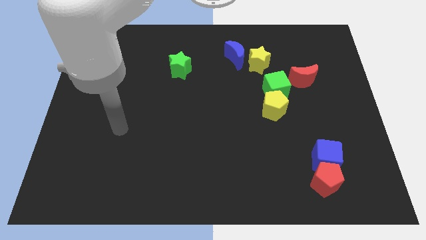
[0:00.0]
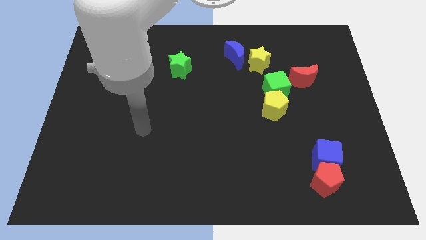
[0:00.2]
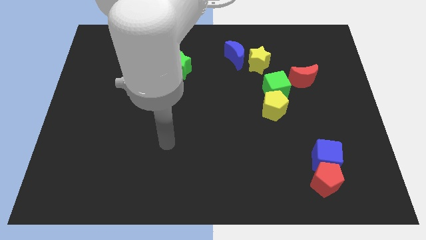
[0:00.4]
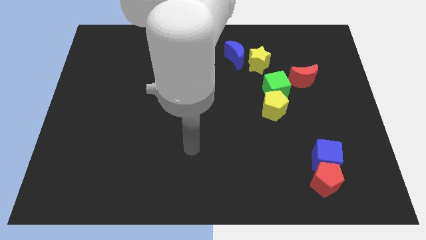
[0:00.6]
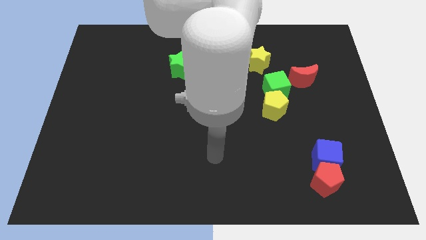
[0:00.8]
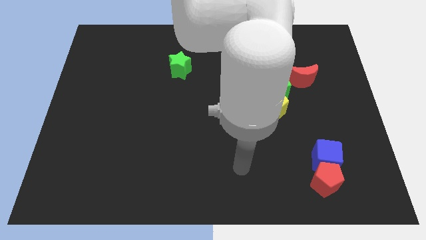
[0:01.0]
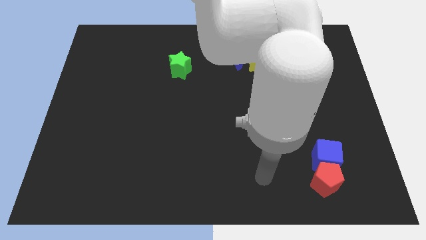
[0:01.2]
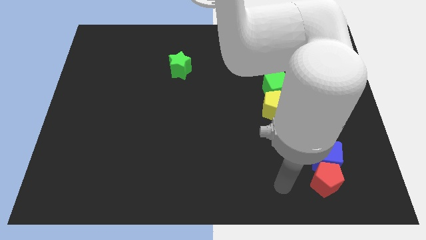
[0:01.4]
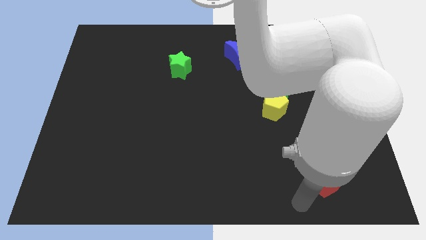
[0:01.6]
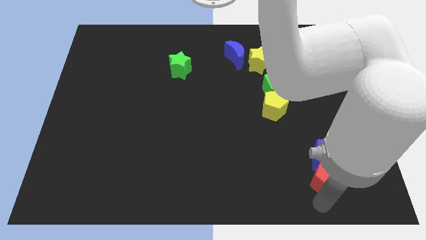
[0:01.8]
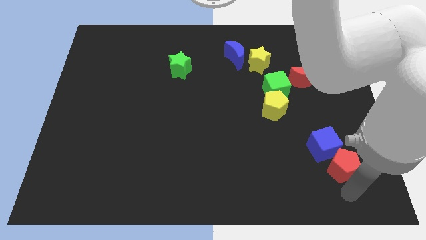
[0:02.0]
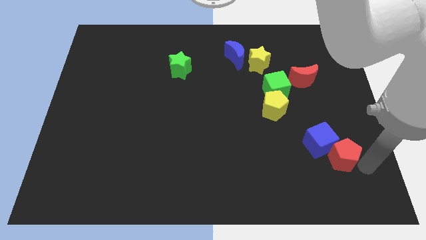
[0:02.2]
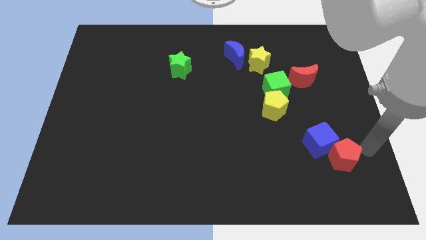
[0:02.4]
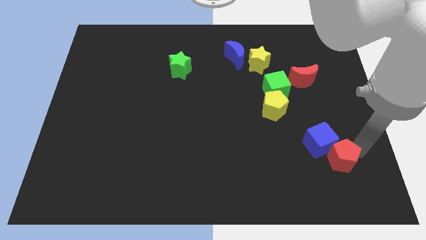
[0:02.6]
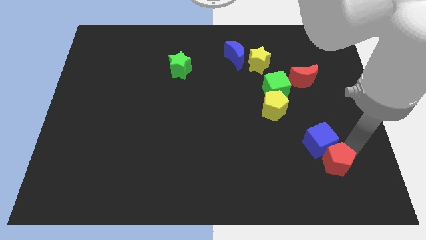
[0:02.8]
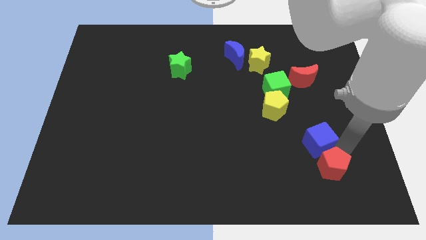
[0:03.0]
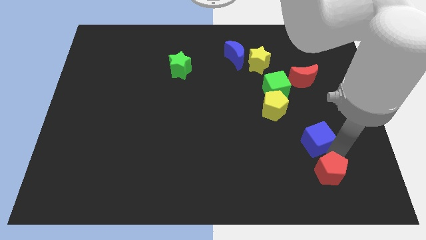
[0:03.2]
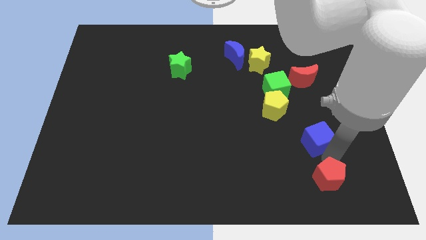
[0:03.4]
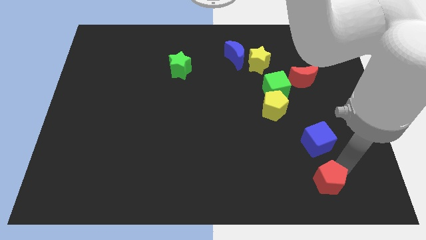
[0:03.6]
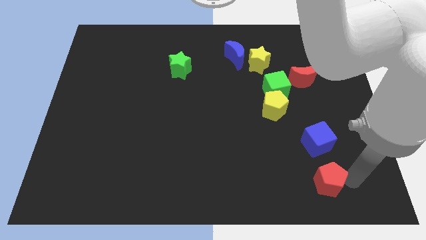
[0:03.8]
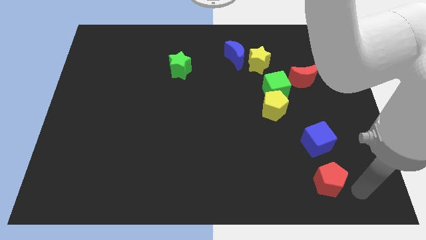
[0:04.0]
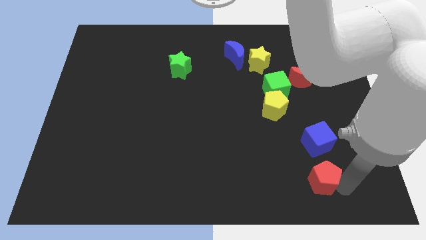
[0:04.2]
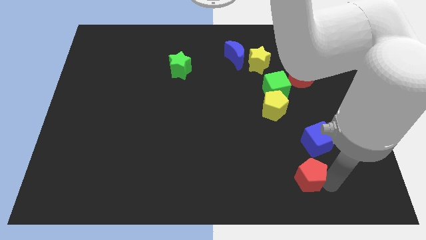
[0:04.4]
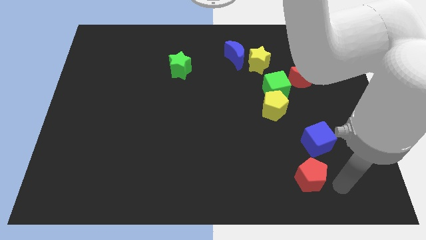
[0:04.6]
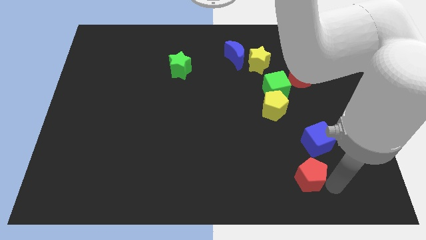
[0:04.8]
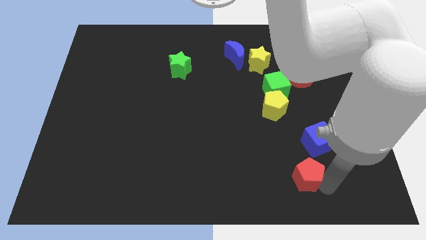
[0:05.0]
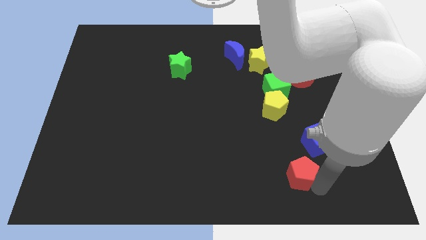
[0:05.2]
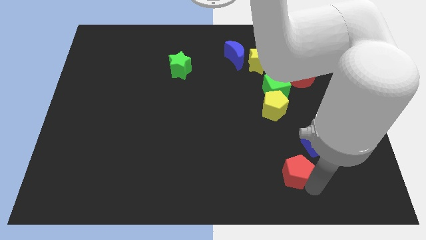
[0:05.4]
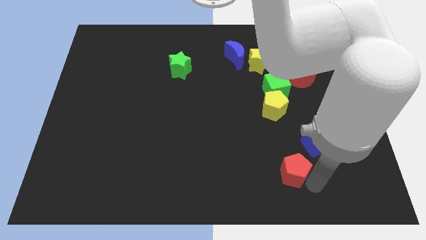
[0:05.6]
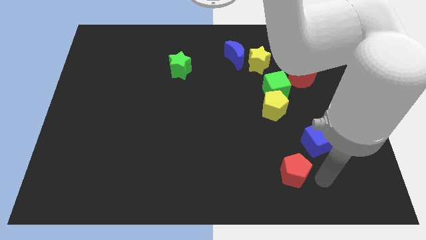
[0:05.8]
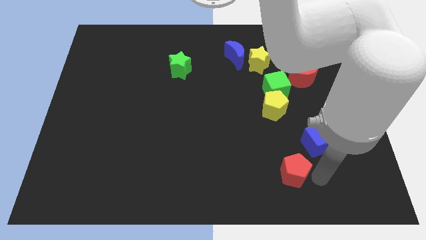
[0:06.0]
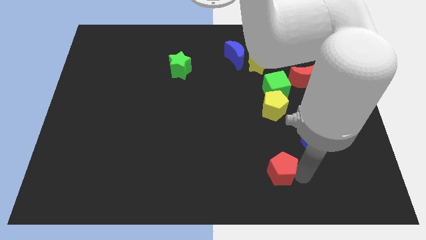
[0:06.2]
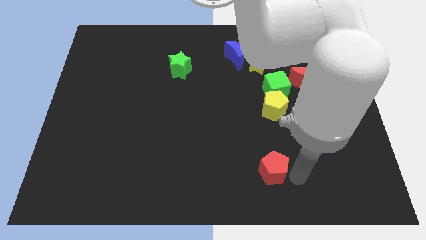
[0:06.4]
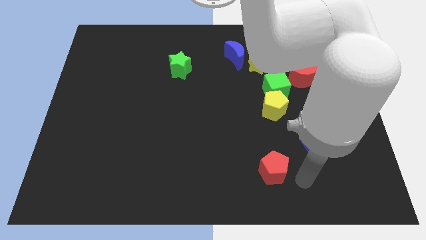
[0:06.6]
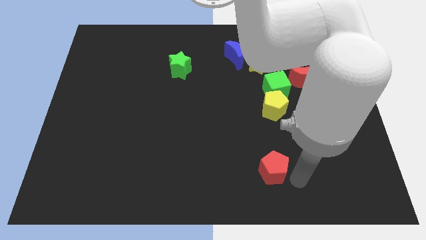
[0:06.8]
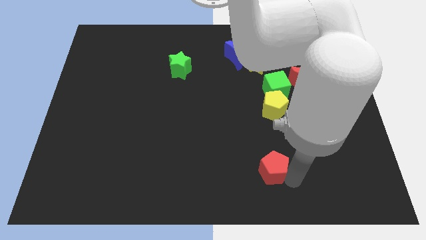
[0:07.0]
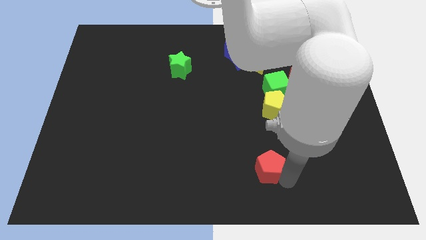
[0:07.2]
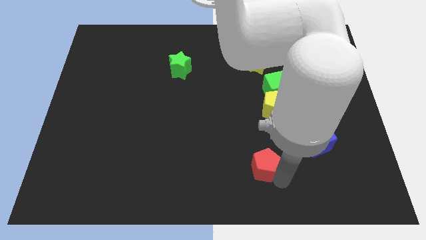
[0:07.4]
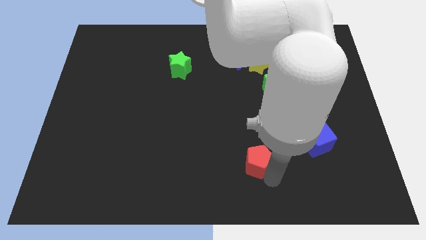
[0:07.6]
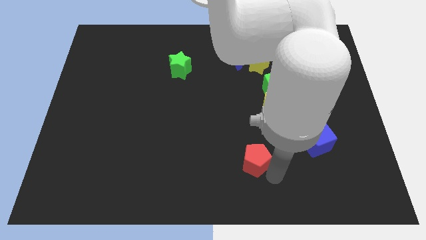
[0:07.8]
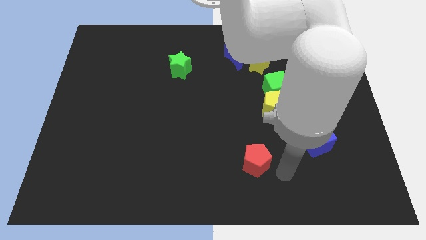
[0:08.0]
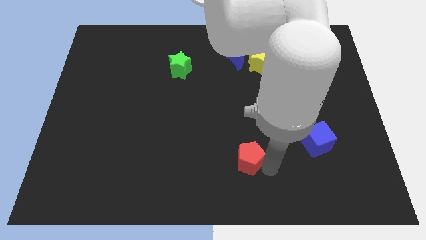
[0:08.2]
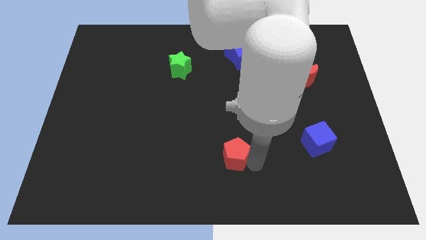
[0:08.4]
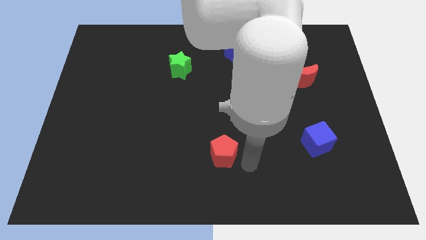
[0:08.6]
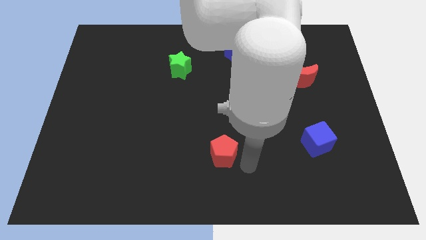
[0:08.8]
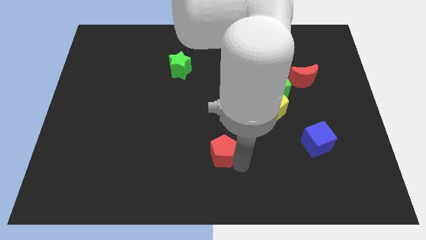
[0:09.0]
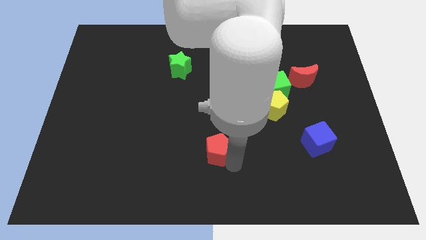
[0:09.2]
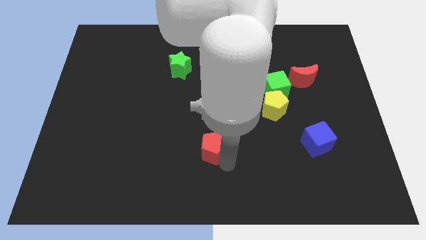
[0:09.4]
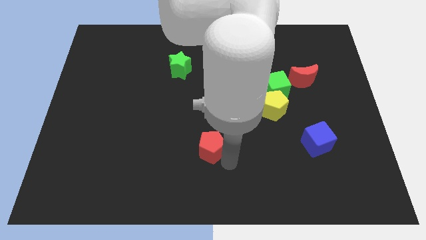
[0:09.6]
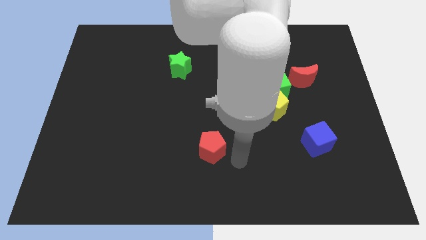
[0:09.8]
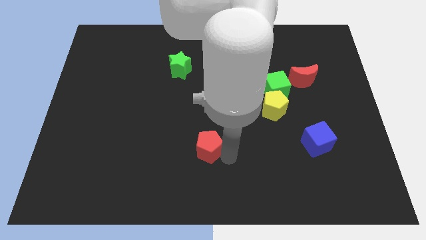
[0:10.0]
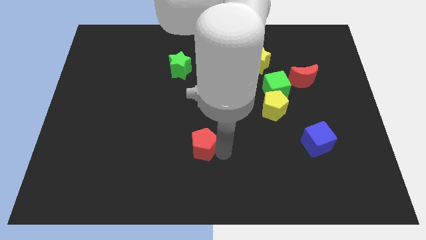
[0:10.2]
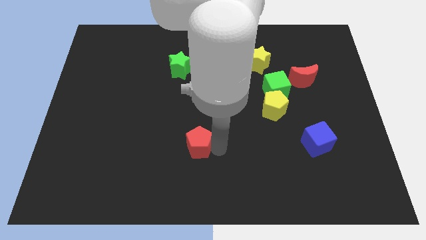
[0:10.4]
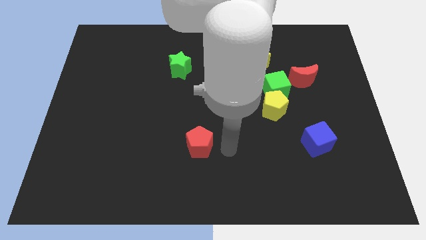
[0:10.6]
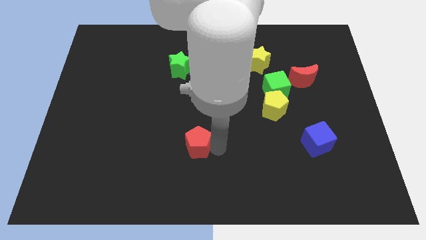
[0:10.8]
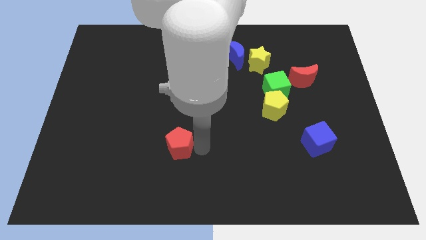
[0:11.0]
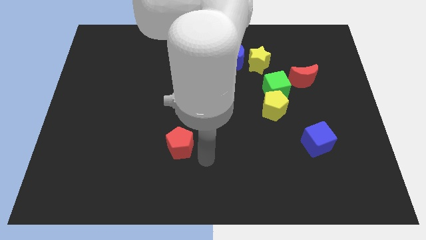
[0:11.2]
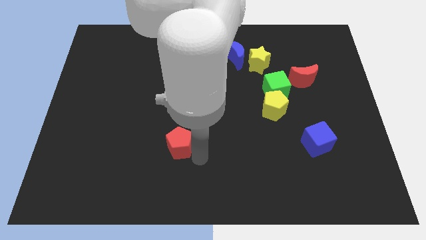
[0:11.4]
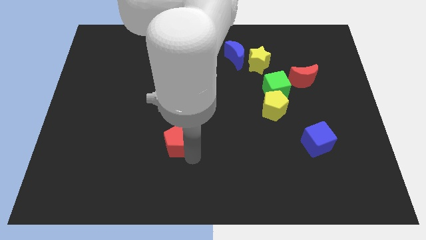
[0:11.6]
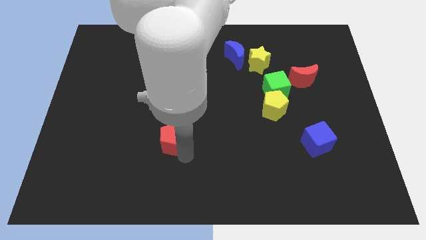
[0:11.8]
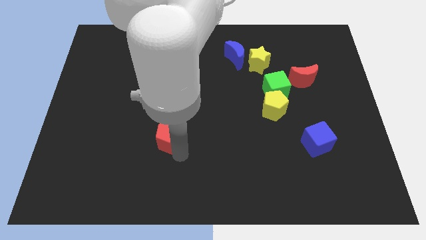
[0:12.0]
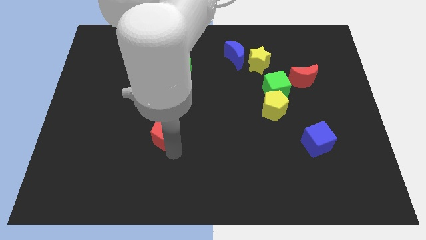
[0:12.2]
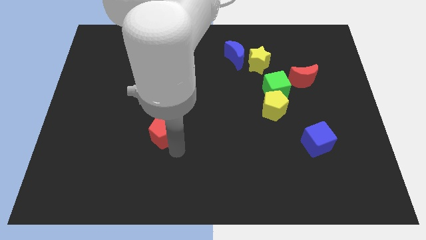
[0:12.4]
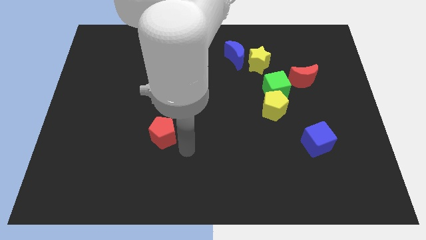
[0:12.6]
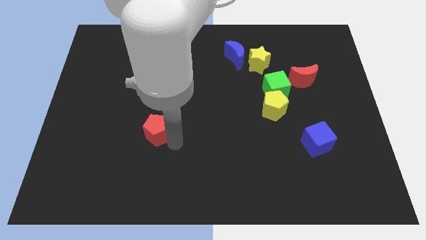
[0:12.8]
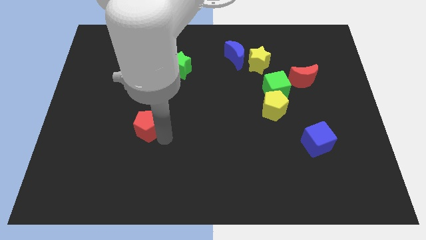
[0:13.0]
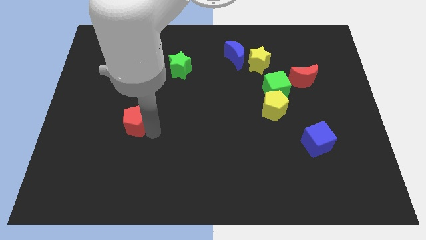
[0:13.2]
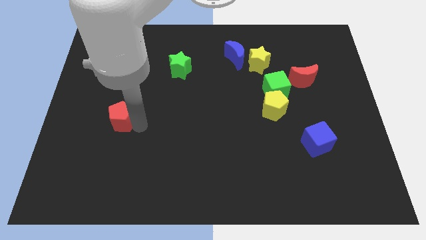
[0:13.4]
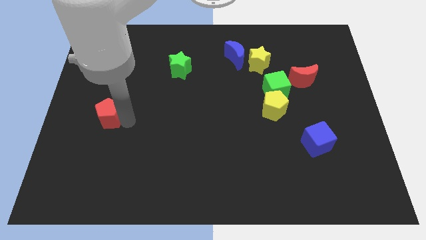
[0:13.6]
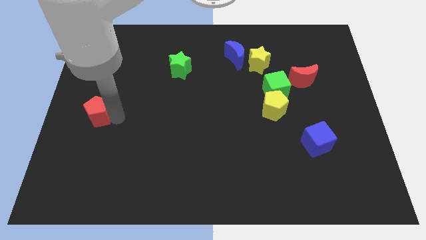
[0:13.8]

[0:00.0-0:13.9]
put the red pentagon to the left side of the board
